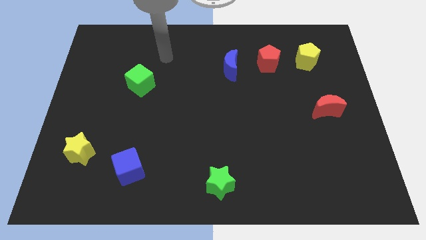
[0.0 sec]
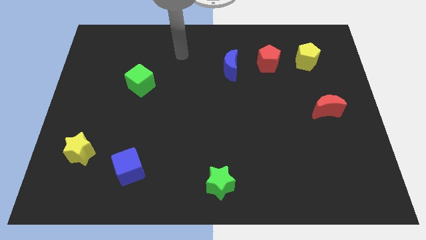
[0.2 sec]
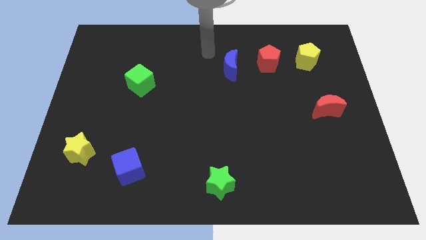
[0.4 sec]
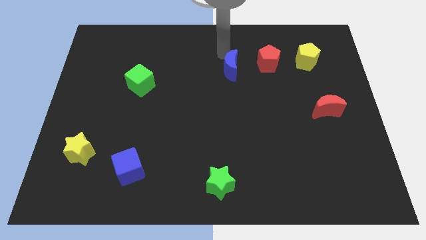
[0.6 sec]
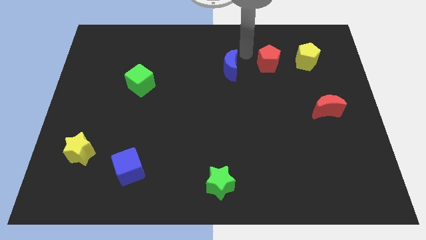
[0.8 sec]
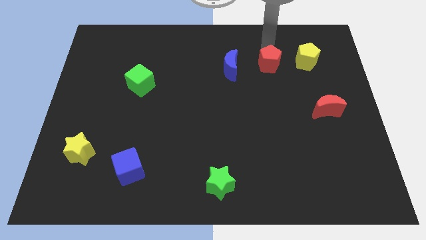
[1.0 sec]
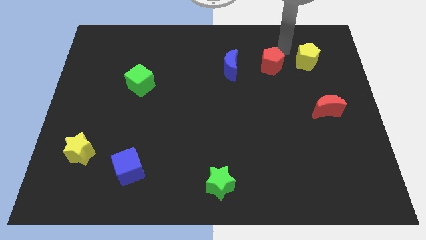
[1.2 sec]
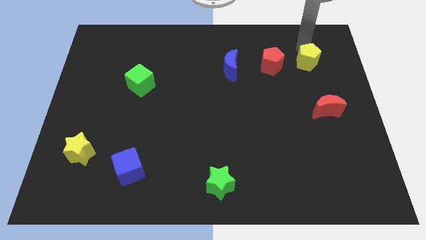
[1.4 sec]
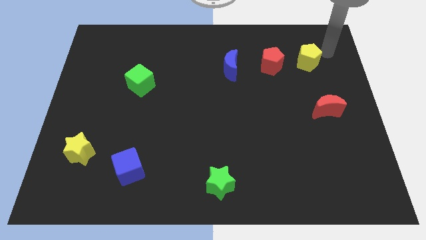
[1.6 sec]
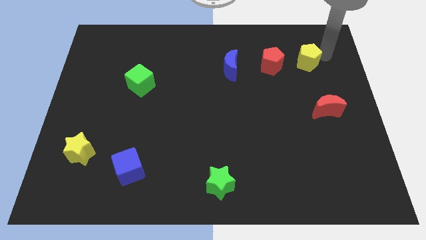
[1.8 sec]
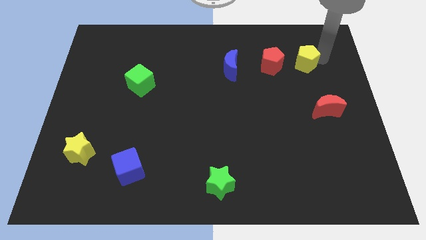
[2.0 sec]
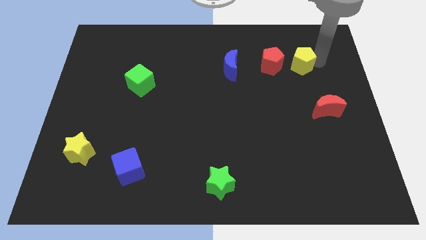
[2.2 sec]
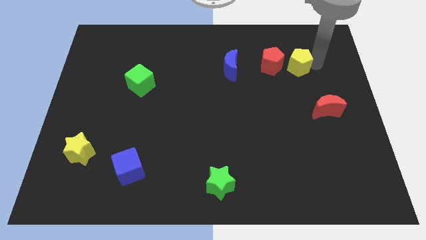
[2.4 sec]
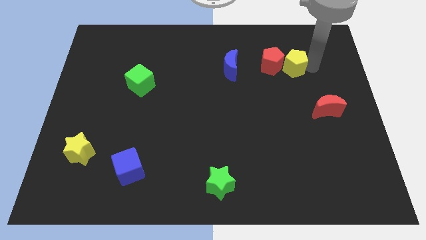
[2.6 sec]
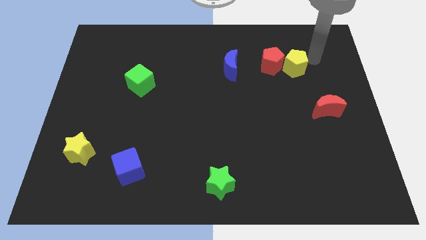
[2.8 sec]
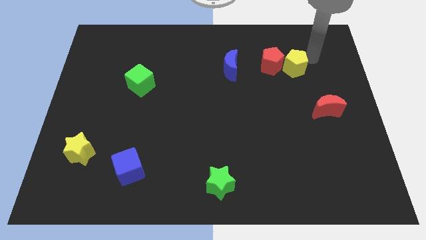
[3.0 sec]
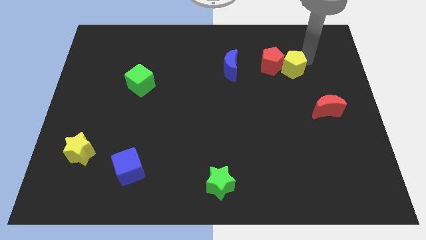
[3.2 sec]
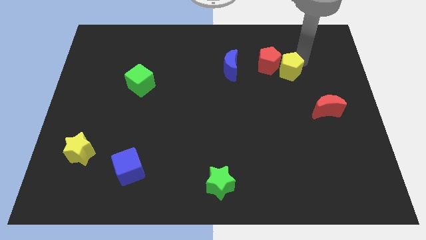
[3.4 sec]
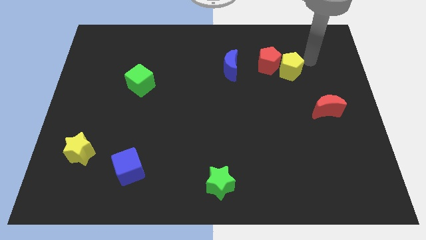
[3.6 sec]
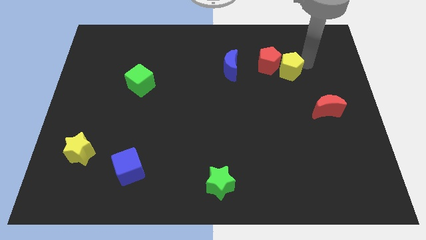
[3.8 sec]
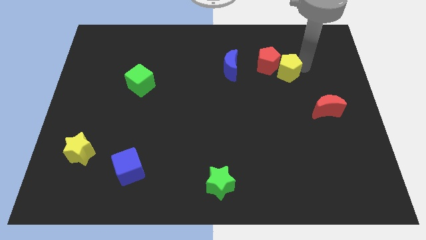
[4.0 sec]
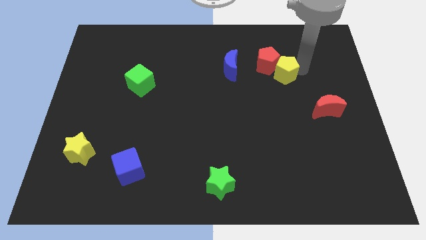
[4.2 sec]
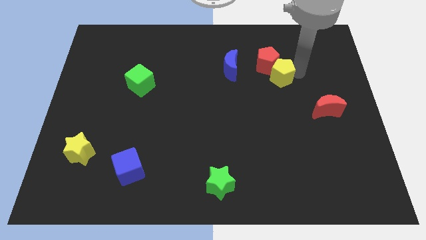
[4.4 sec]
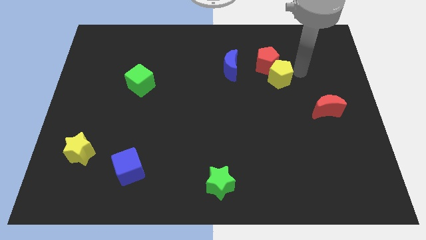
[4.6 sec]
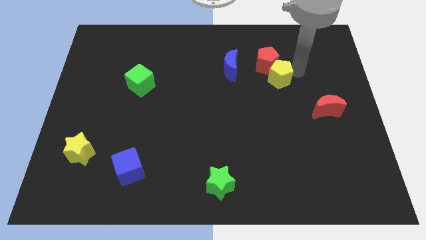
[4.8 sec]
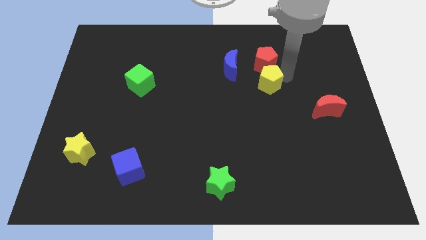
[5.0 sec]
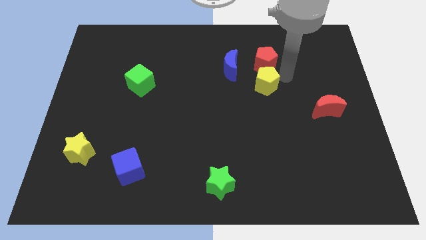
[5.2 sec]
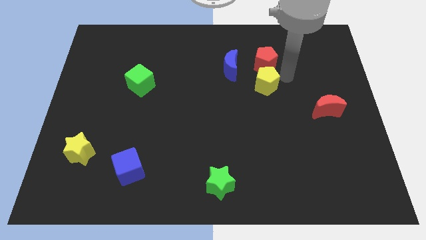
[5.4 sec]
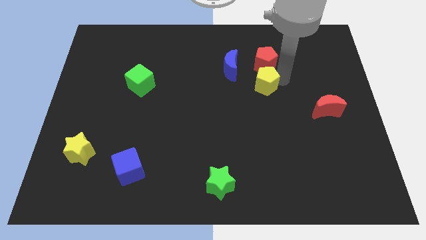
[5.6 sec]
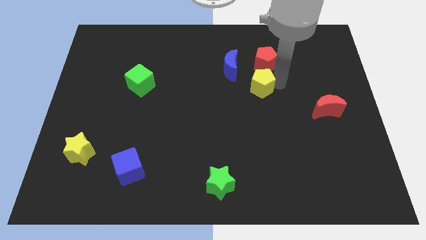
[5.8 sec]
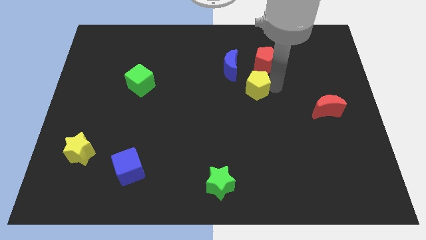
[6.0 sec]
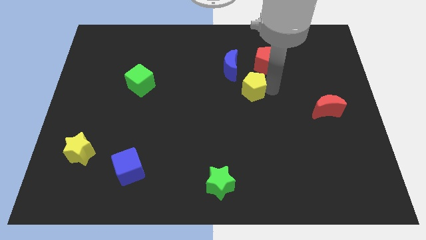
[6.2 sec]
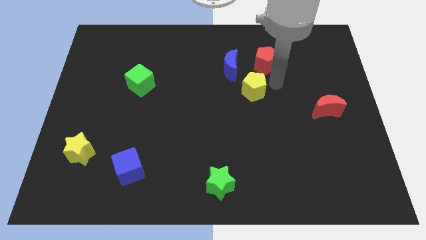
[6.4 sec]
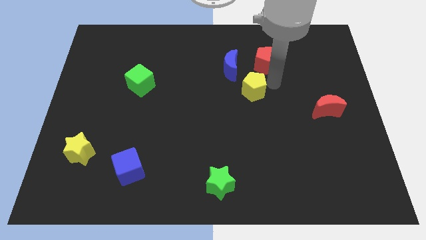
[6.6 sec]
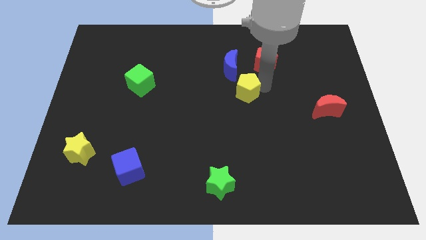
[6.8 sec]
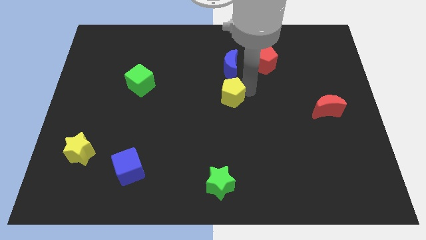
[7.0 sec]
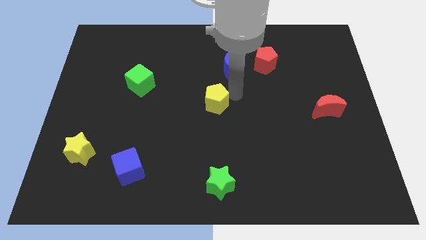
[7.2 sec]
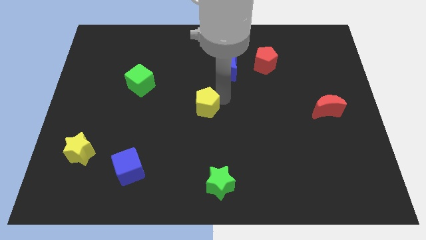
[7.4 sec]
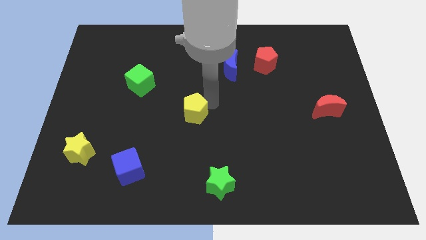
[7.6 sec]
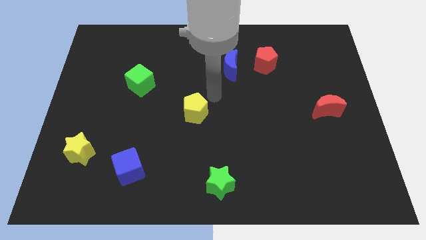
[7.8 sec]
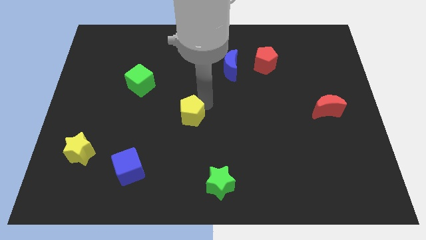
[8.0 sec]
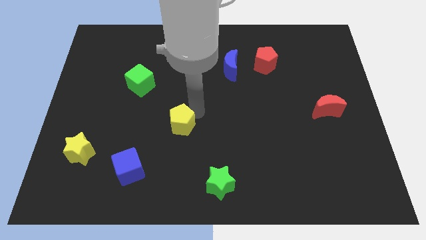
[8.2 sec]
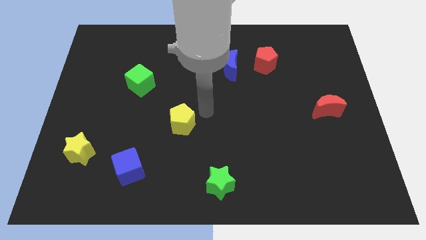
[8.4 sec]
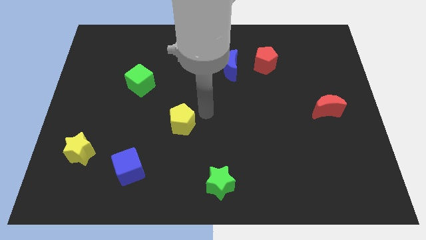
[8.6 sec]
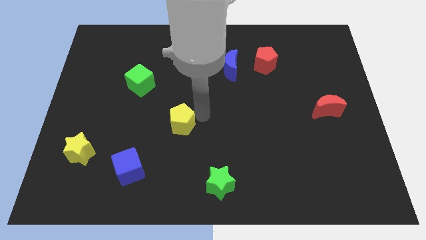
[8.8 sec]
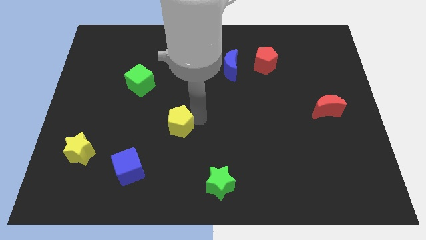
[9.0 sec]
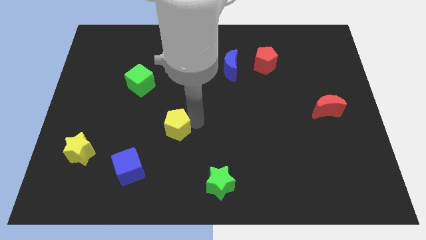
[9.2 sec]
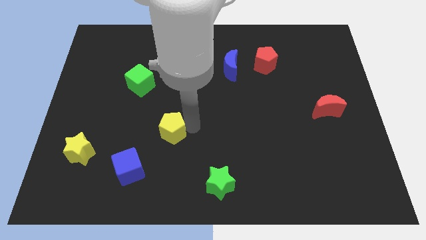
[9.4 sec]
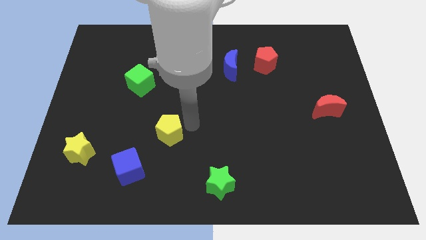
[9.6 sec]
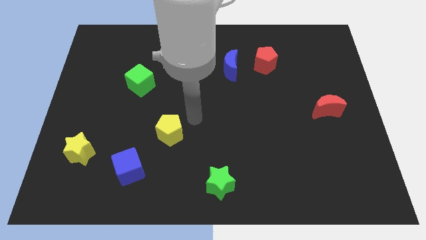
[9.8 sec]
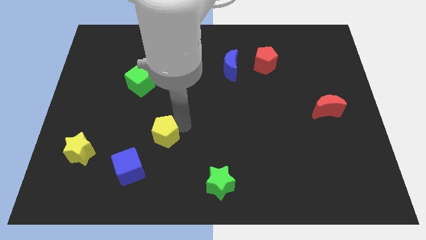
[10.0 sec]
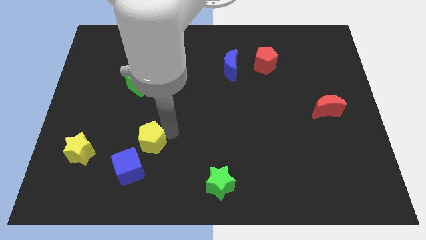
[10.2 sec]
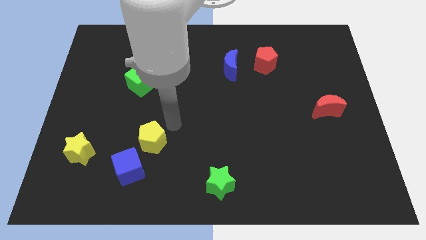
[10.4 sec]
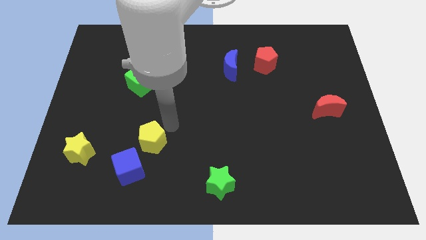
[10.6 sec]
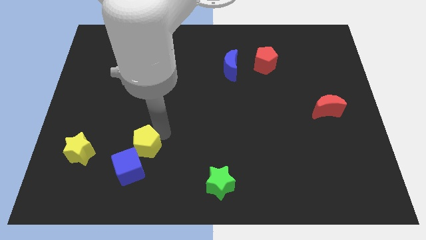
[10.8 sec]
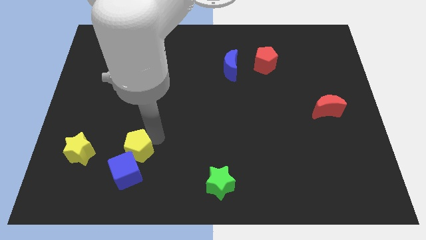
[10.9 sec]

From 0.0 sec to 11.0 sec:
slide the yellow pentagon close to the blue cube

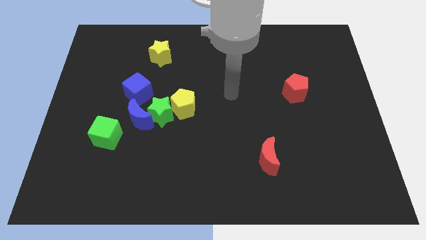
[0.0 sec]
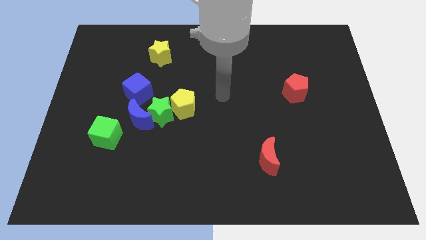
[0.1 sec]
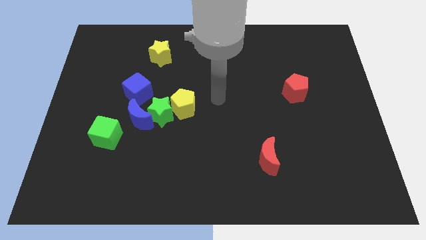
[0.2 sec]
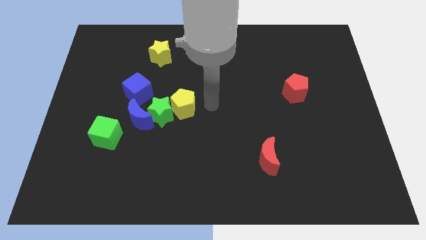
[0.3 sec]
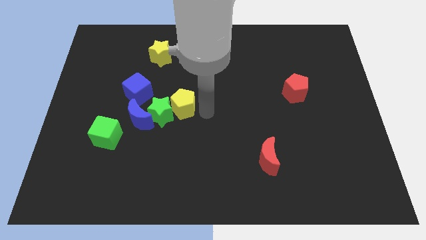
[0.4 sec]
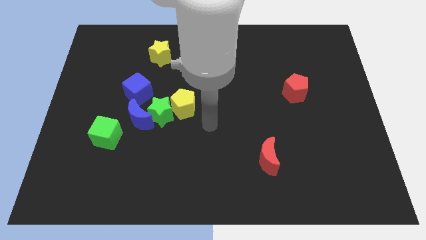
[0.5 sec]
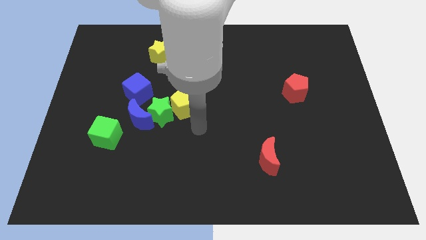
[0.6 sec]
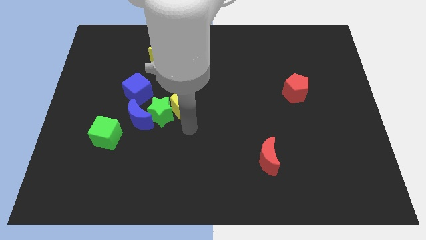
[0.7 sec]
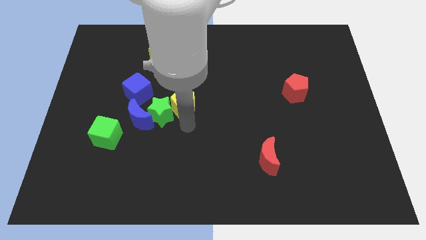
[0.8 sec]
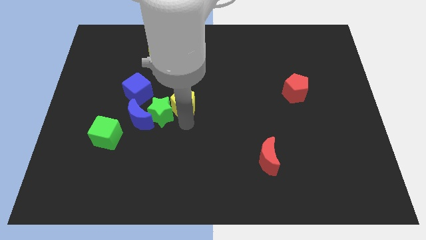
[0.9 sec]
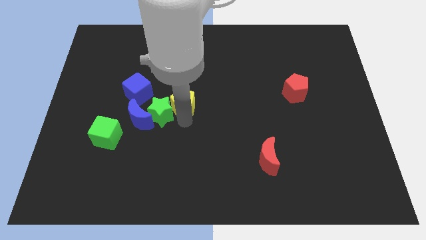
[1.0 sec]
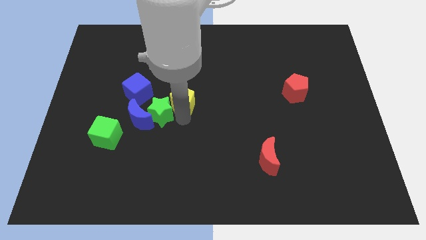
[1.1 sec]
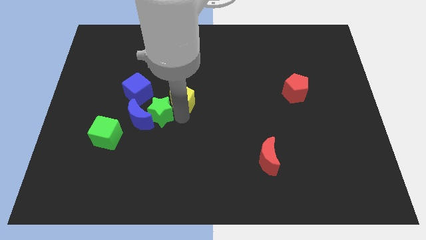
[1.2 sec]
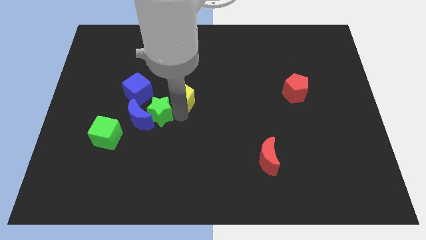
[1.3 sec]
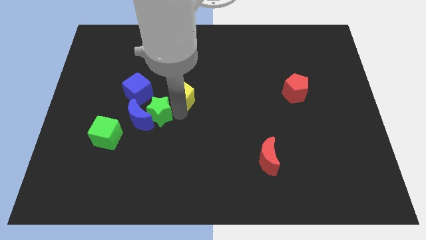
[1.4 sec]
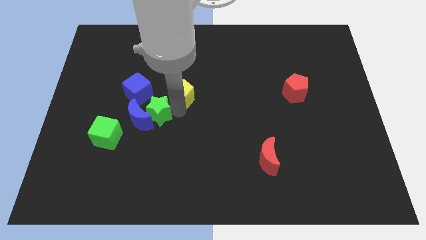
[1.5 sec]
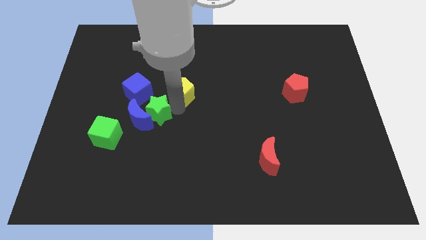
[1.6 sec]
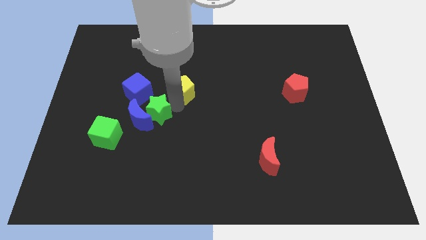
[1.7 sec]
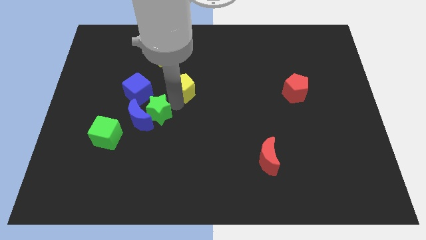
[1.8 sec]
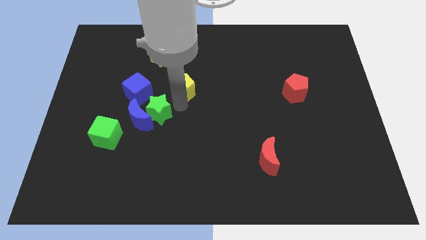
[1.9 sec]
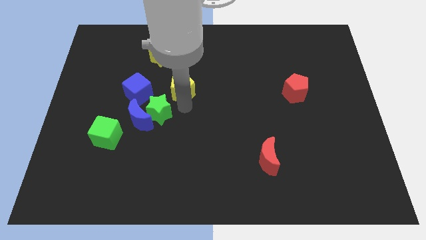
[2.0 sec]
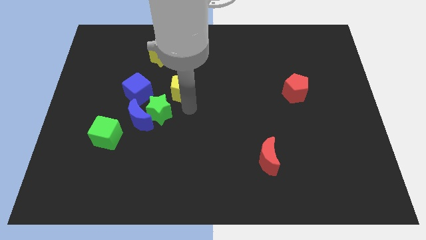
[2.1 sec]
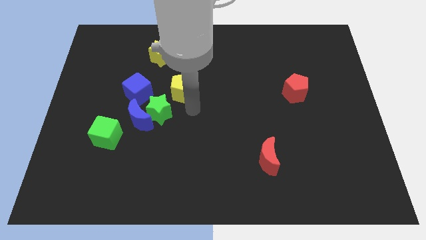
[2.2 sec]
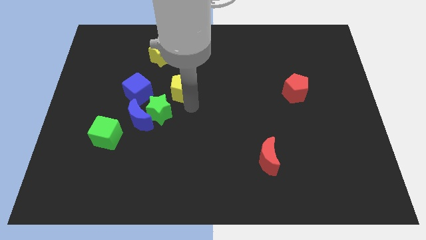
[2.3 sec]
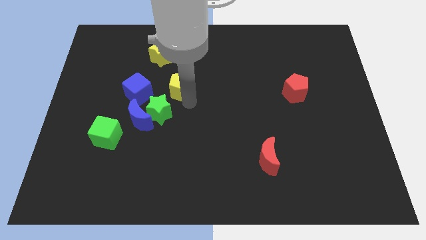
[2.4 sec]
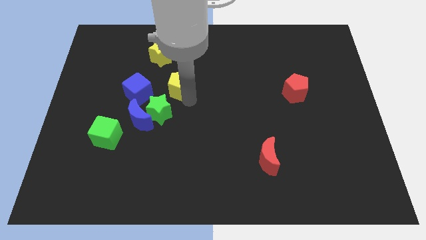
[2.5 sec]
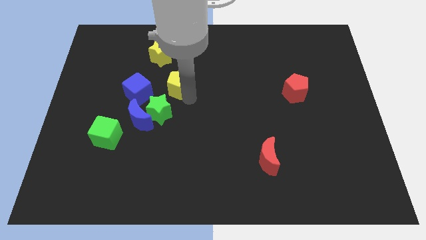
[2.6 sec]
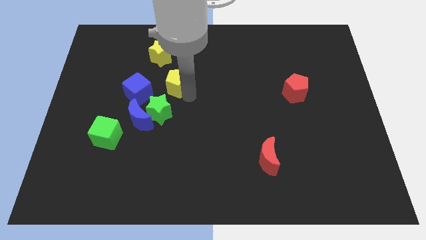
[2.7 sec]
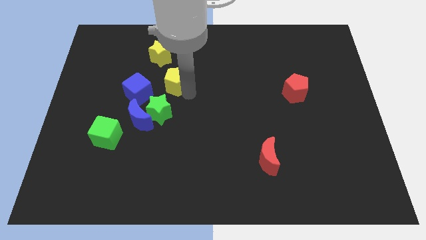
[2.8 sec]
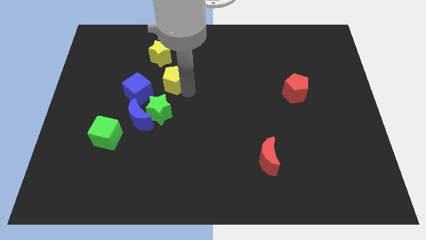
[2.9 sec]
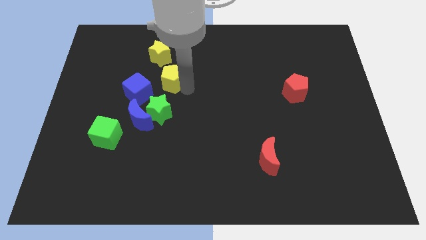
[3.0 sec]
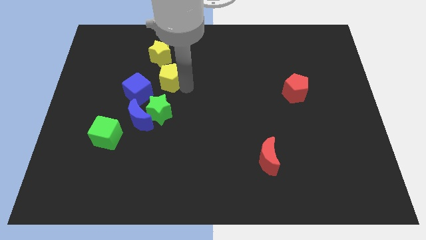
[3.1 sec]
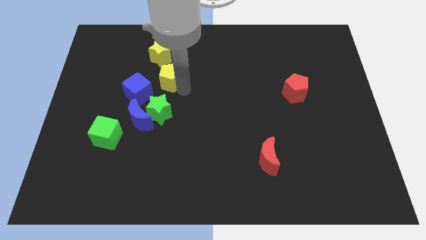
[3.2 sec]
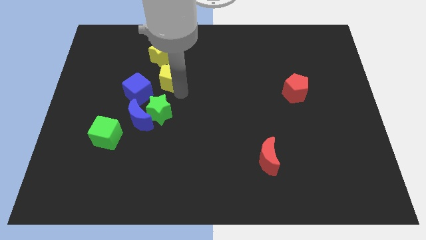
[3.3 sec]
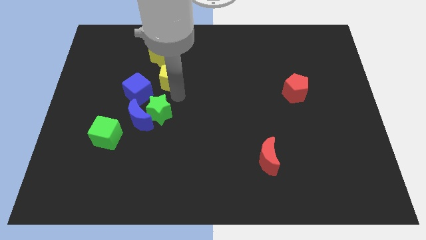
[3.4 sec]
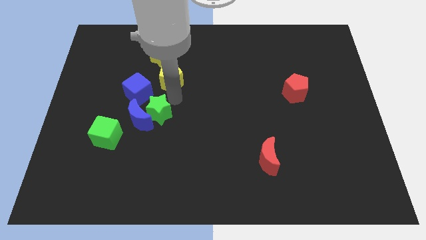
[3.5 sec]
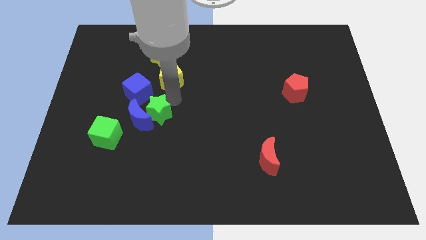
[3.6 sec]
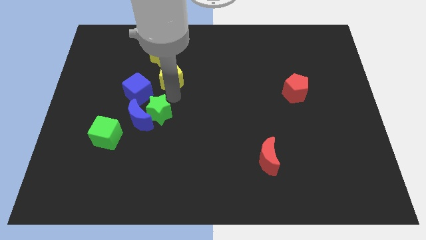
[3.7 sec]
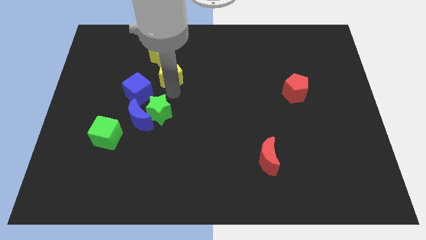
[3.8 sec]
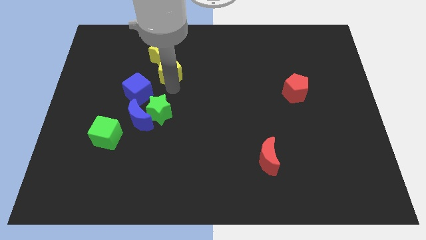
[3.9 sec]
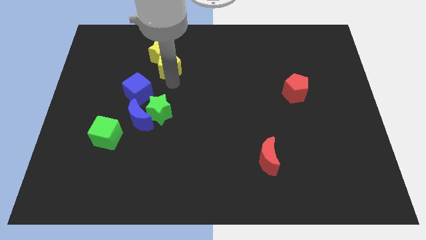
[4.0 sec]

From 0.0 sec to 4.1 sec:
push the yellow pentagon close to the yellow star
